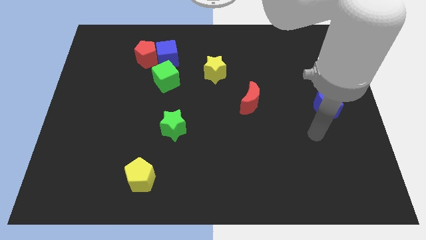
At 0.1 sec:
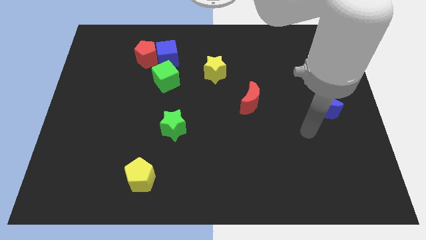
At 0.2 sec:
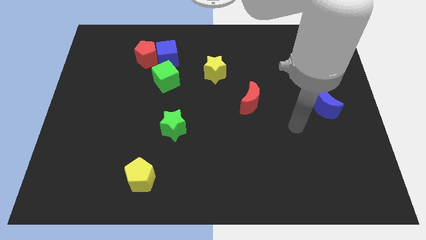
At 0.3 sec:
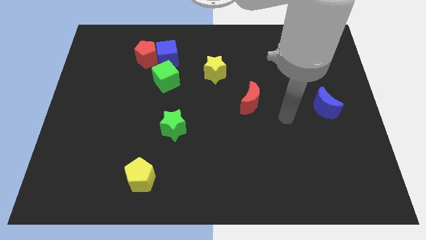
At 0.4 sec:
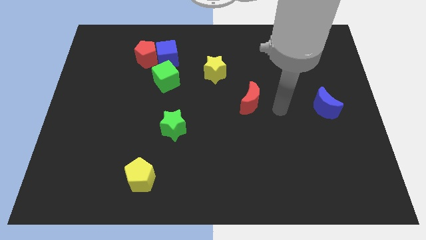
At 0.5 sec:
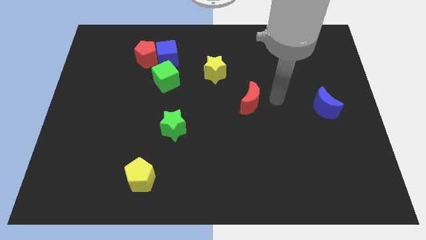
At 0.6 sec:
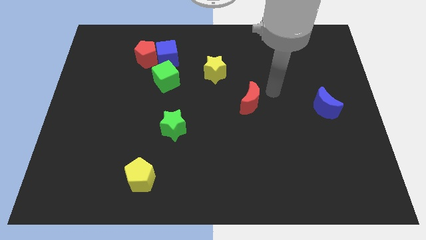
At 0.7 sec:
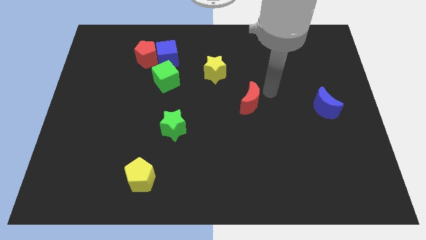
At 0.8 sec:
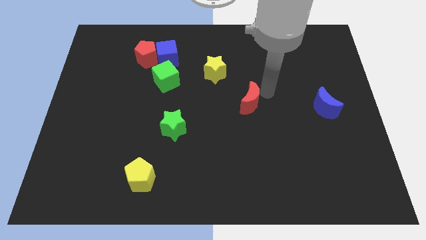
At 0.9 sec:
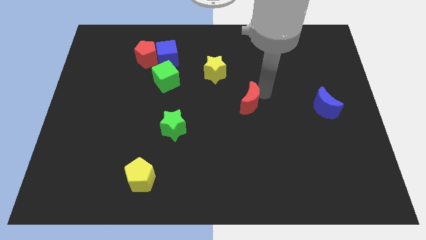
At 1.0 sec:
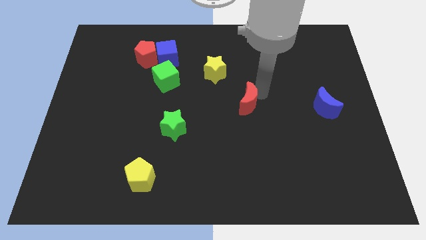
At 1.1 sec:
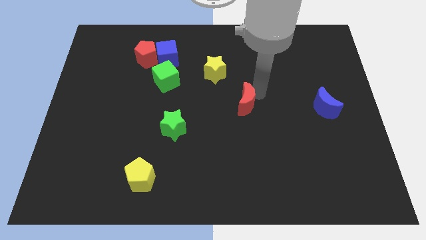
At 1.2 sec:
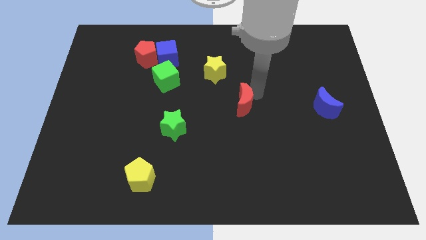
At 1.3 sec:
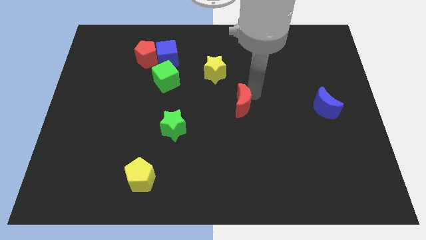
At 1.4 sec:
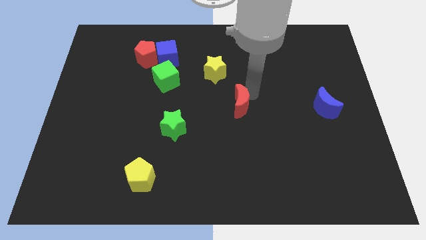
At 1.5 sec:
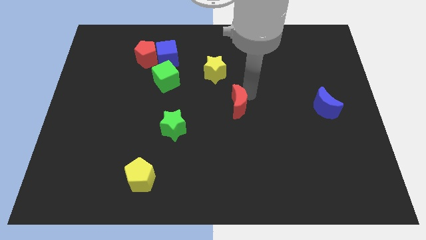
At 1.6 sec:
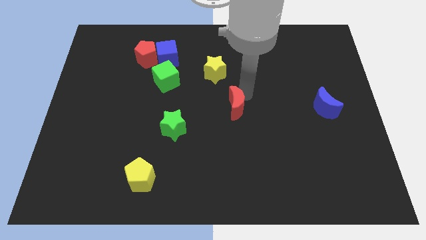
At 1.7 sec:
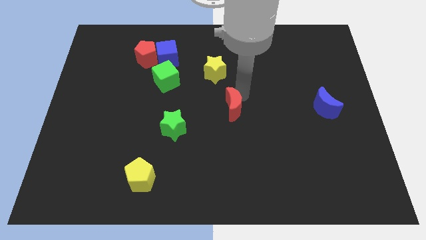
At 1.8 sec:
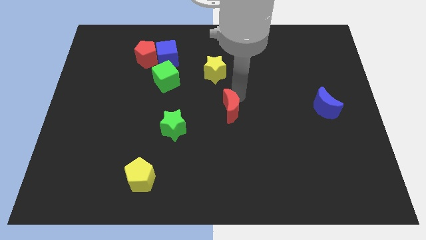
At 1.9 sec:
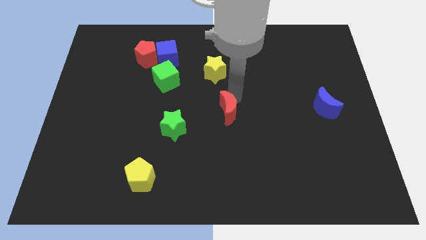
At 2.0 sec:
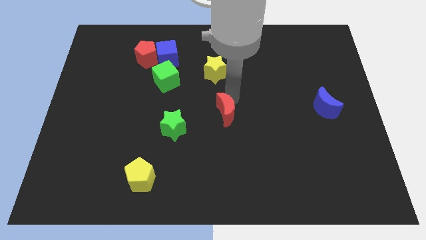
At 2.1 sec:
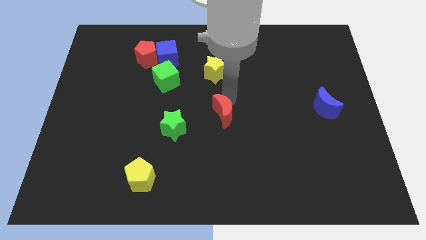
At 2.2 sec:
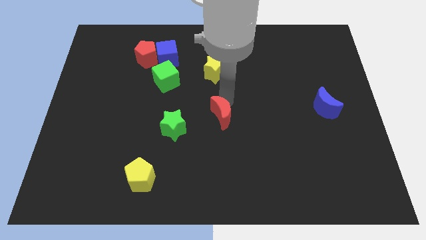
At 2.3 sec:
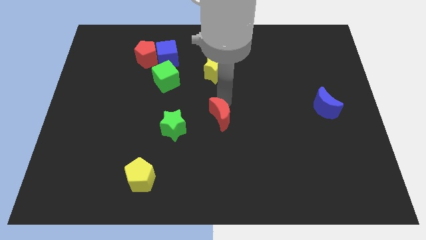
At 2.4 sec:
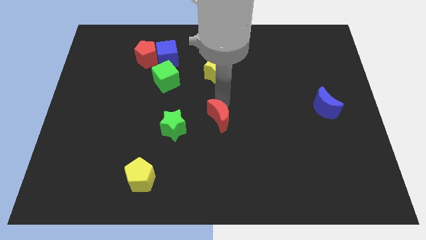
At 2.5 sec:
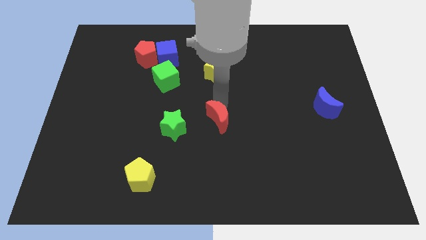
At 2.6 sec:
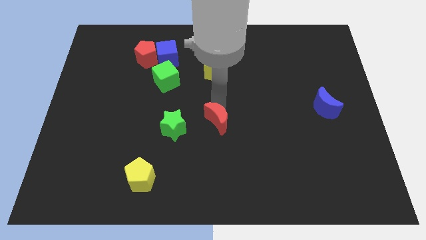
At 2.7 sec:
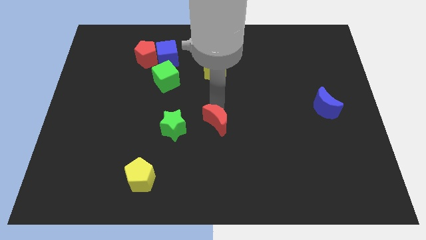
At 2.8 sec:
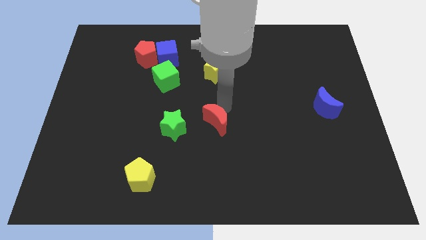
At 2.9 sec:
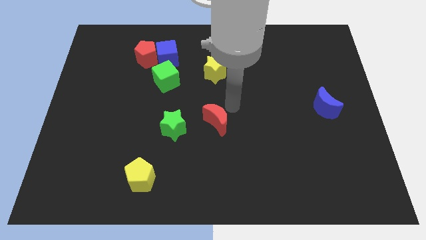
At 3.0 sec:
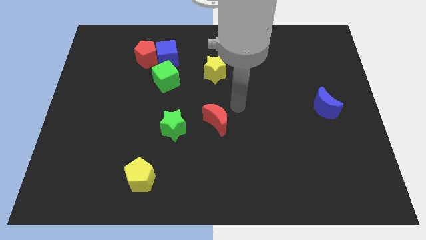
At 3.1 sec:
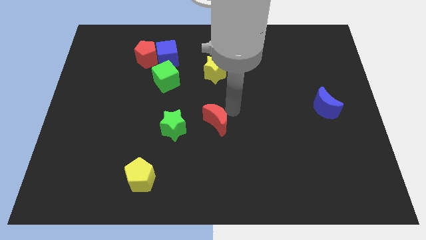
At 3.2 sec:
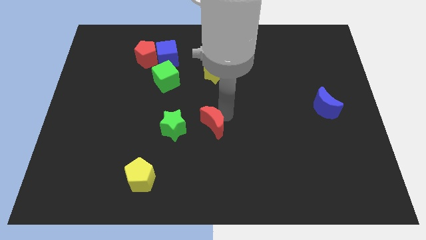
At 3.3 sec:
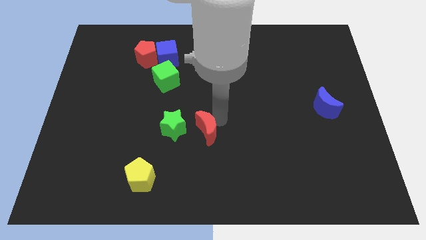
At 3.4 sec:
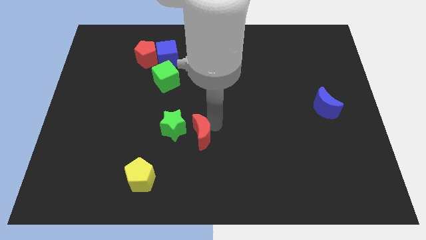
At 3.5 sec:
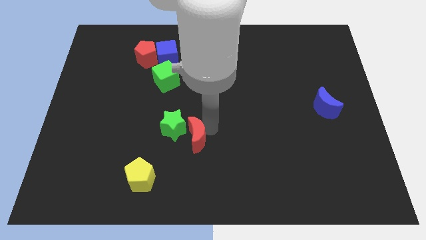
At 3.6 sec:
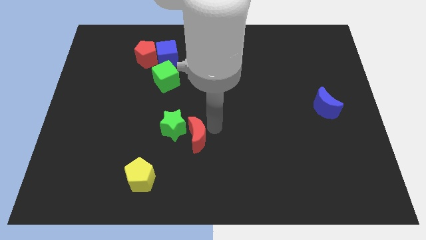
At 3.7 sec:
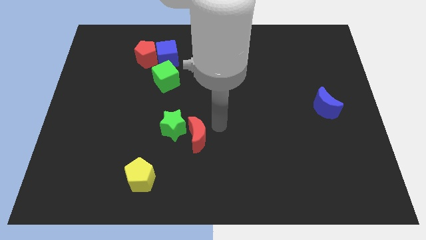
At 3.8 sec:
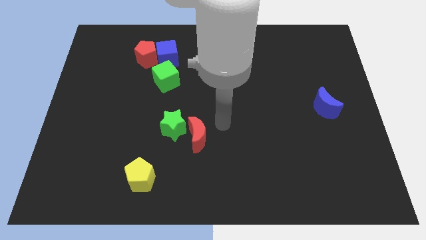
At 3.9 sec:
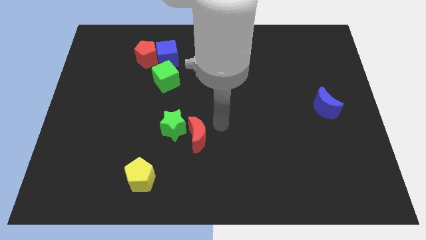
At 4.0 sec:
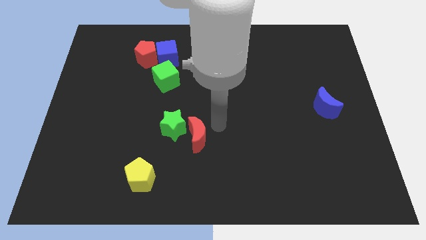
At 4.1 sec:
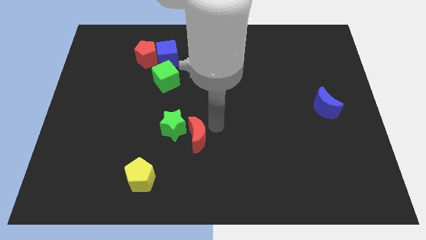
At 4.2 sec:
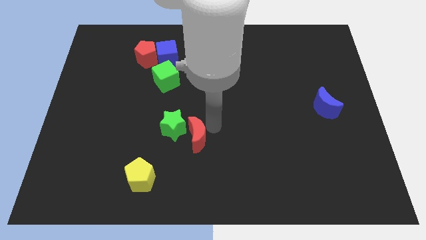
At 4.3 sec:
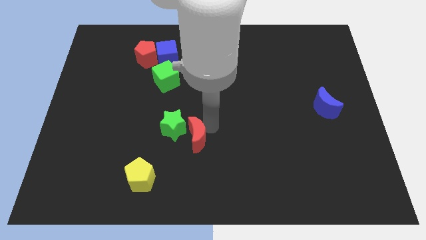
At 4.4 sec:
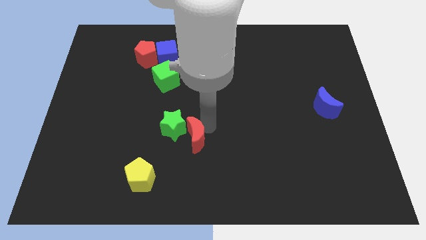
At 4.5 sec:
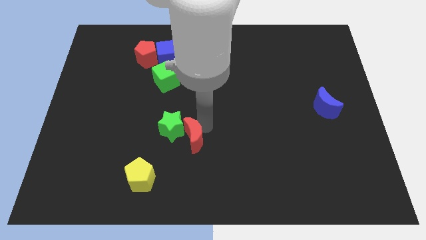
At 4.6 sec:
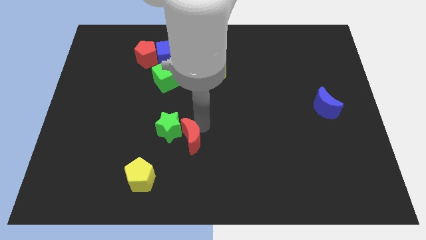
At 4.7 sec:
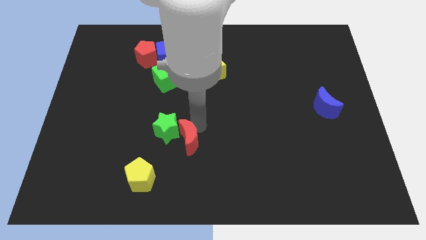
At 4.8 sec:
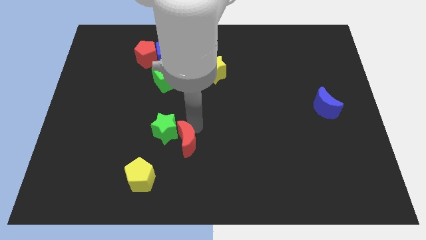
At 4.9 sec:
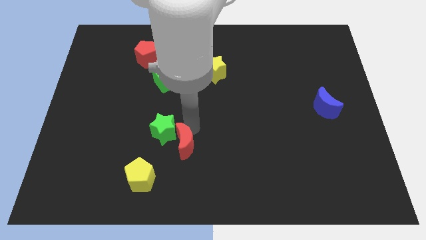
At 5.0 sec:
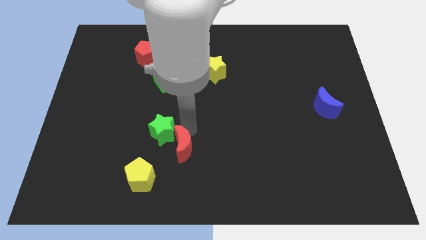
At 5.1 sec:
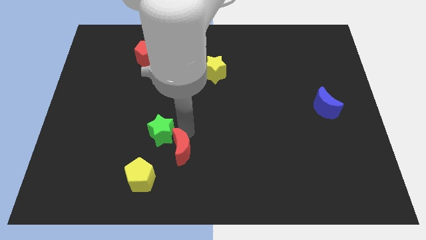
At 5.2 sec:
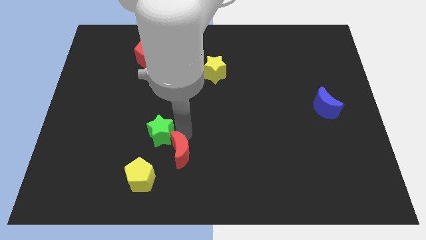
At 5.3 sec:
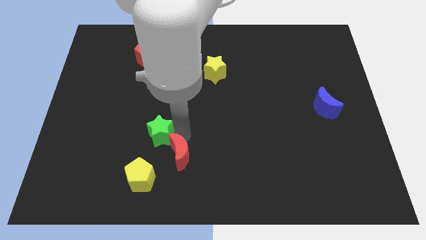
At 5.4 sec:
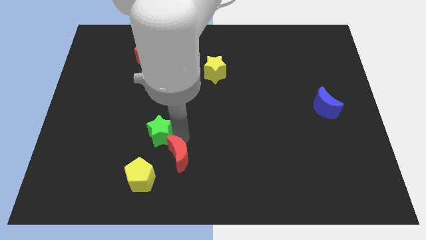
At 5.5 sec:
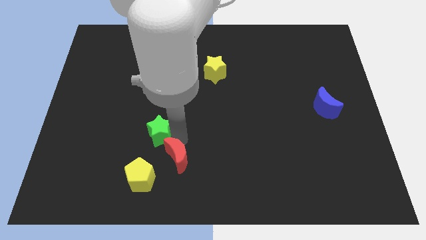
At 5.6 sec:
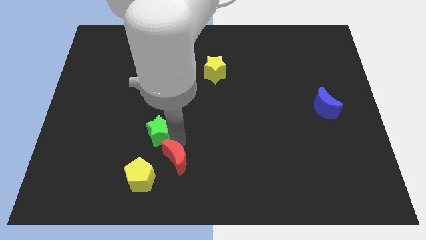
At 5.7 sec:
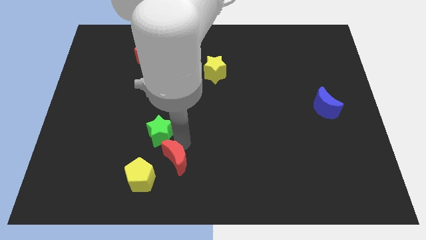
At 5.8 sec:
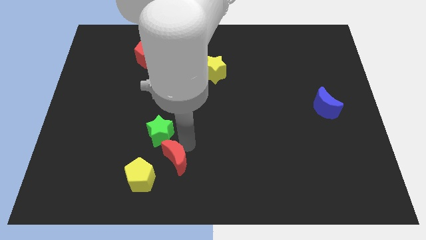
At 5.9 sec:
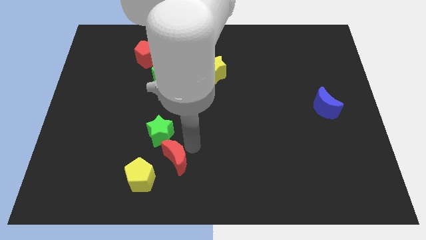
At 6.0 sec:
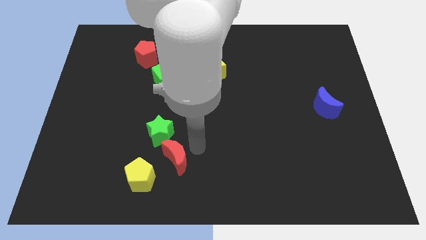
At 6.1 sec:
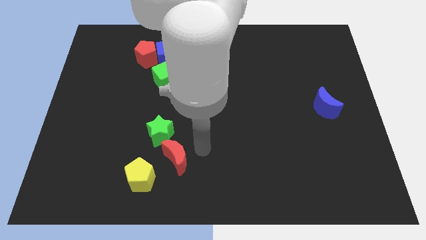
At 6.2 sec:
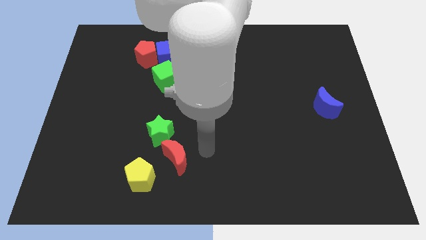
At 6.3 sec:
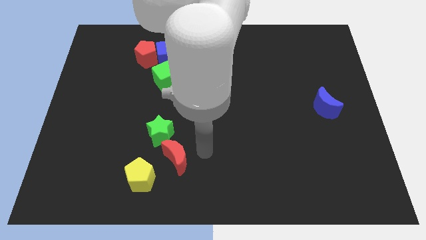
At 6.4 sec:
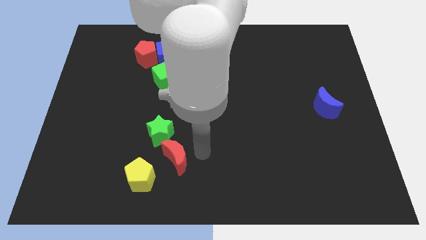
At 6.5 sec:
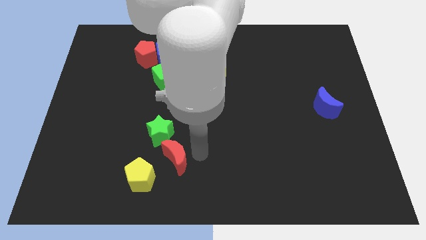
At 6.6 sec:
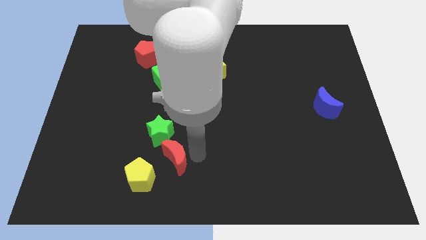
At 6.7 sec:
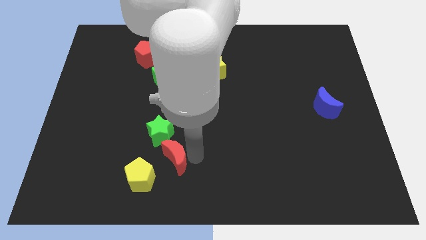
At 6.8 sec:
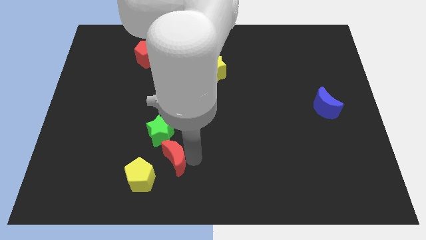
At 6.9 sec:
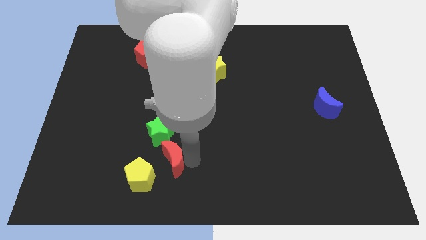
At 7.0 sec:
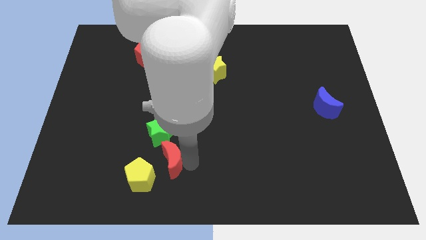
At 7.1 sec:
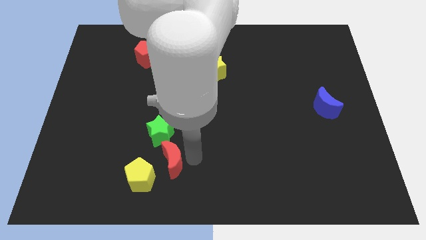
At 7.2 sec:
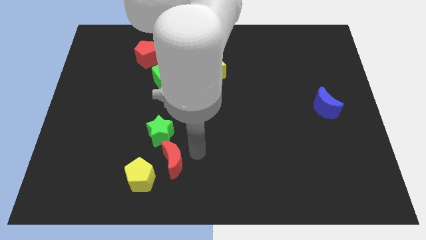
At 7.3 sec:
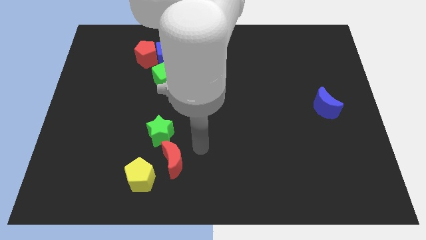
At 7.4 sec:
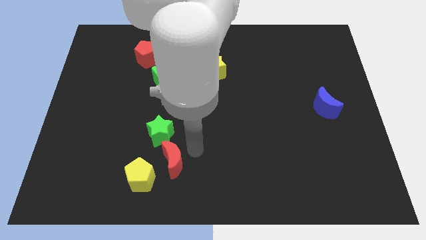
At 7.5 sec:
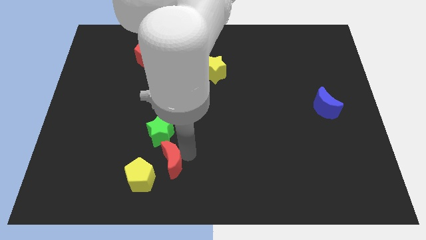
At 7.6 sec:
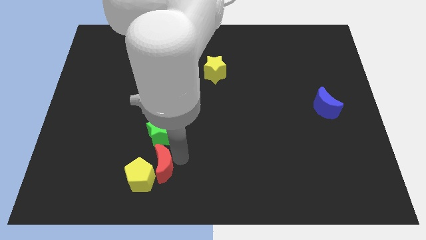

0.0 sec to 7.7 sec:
move the red moon next to the yellow pentagon
